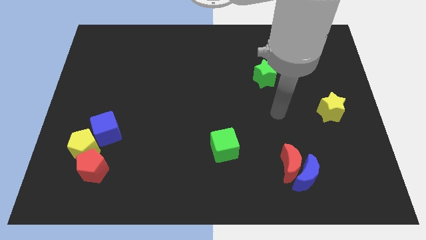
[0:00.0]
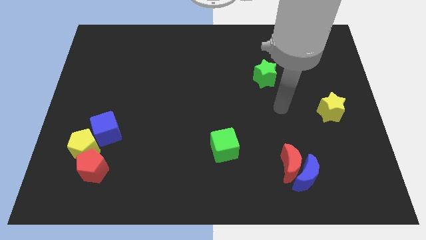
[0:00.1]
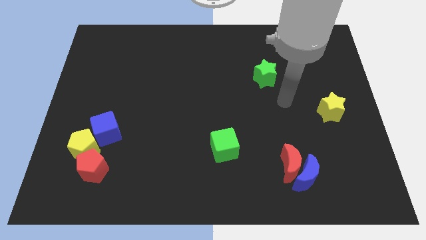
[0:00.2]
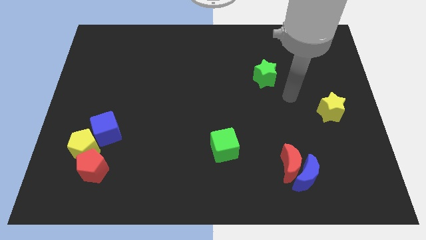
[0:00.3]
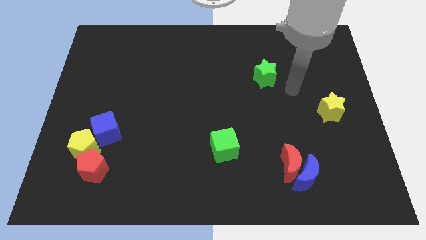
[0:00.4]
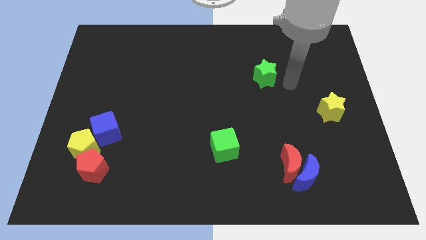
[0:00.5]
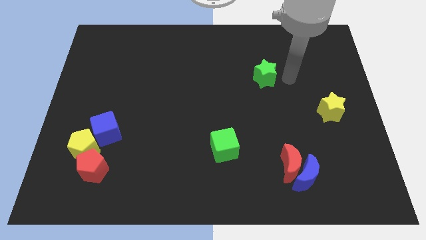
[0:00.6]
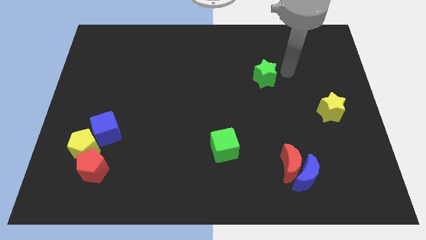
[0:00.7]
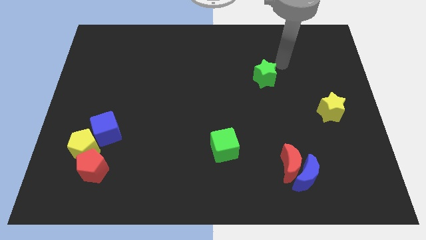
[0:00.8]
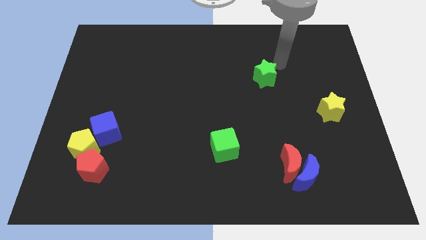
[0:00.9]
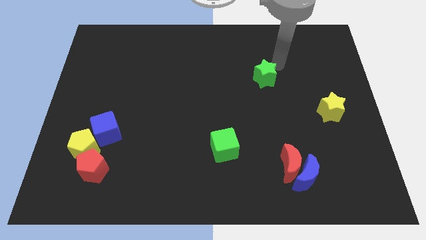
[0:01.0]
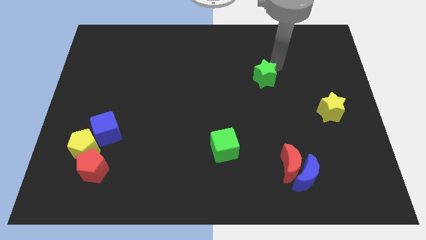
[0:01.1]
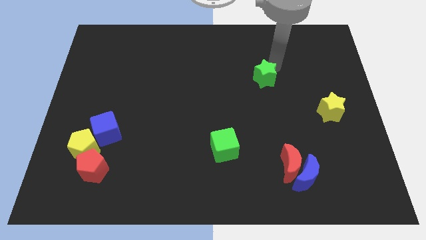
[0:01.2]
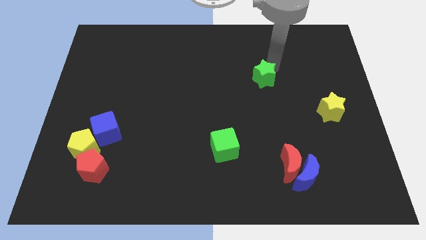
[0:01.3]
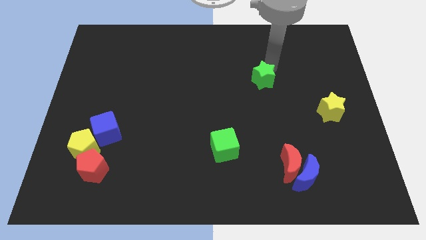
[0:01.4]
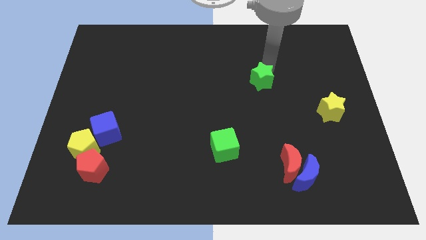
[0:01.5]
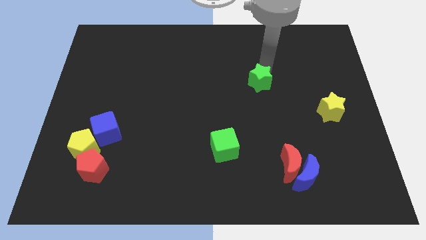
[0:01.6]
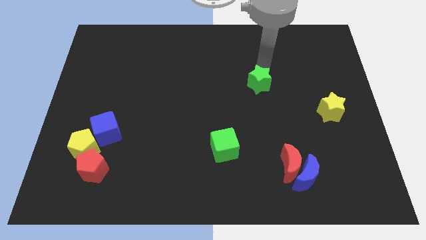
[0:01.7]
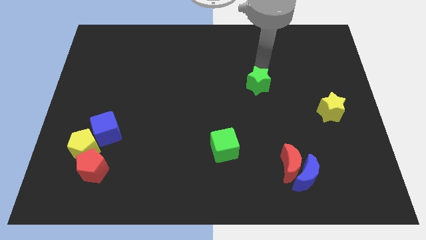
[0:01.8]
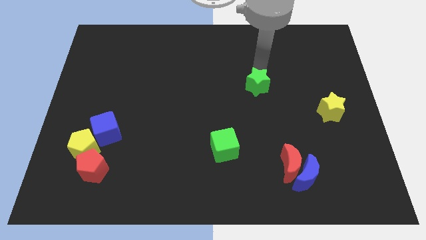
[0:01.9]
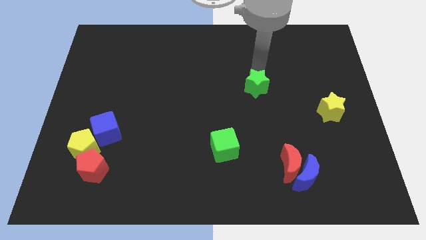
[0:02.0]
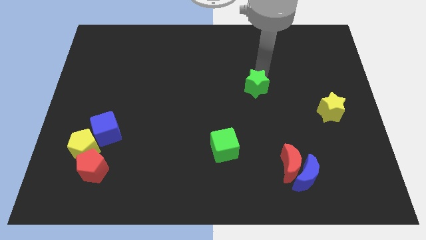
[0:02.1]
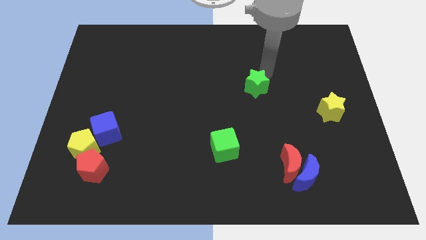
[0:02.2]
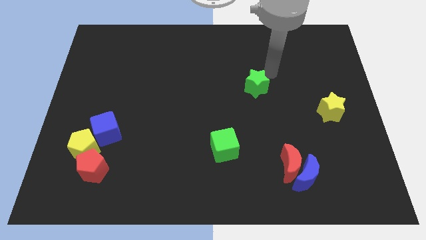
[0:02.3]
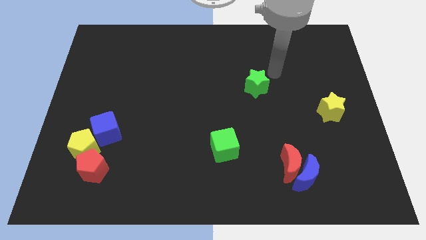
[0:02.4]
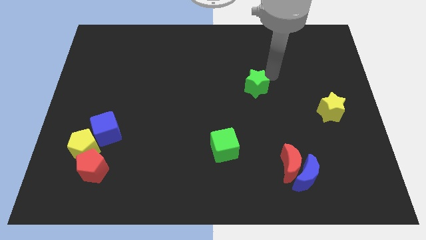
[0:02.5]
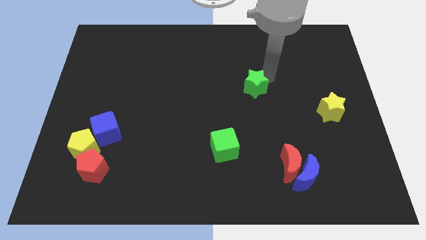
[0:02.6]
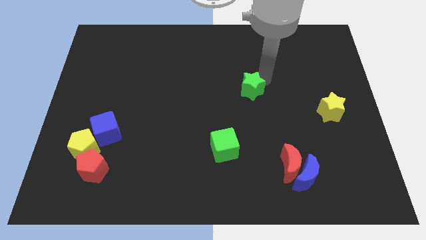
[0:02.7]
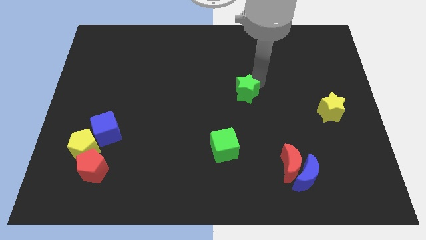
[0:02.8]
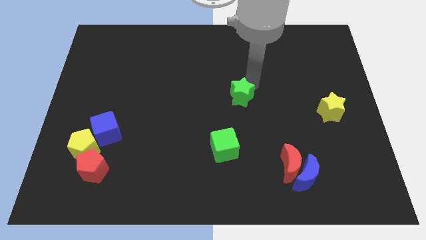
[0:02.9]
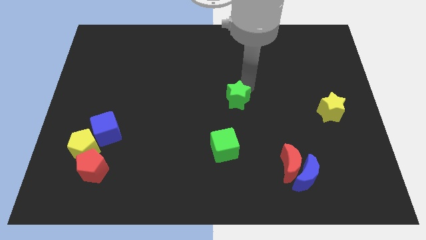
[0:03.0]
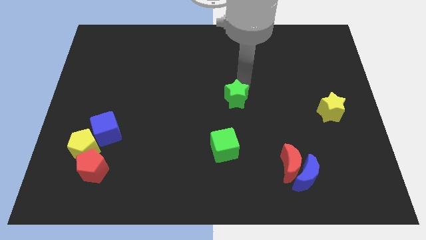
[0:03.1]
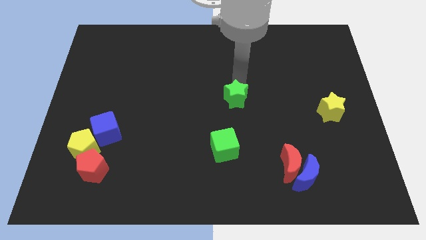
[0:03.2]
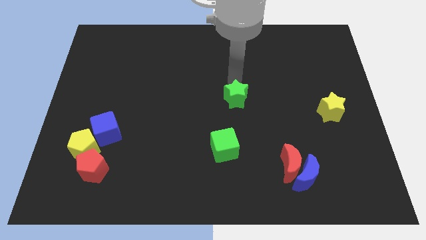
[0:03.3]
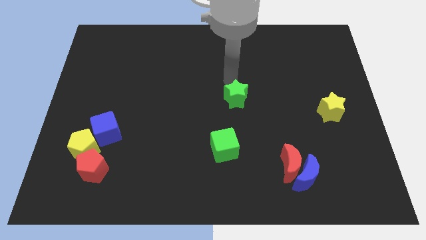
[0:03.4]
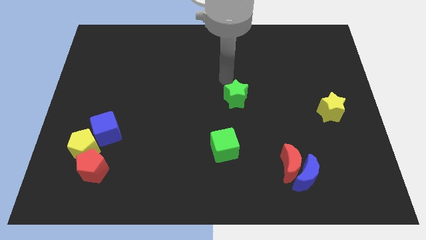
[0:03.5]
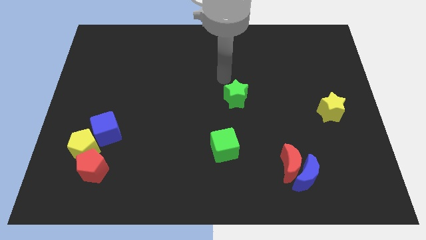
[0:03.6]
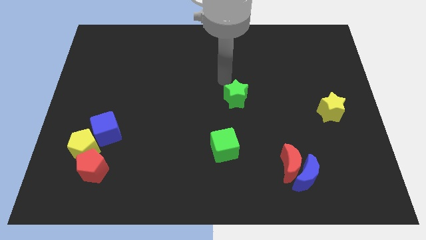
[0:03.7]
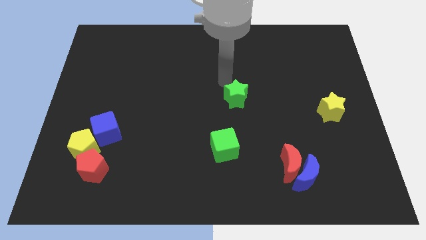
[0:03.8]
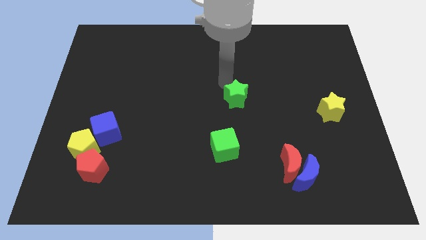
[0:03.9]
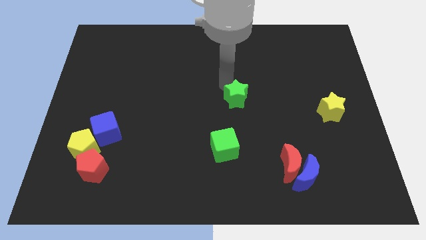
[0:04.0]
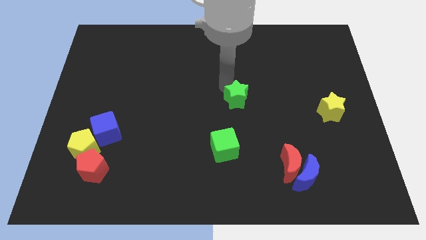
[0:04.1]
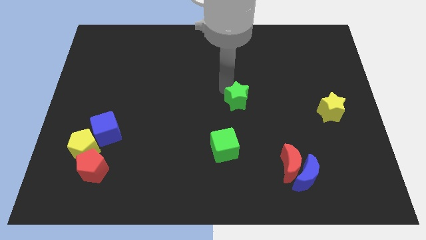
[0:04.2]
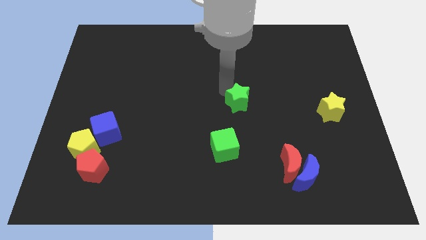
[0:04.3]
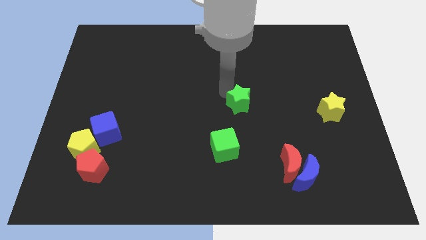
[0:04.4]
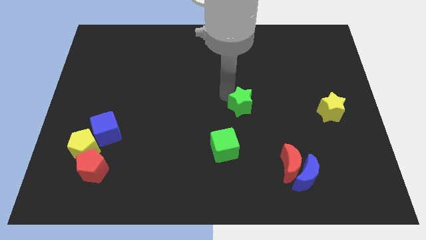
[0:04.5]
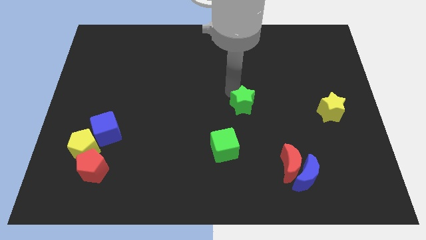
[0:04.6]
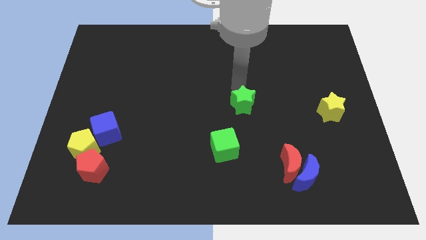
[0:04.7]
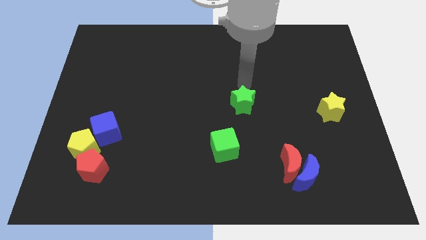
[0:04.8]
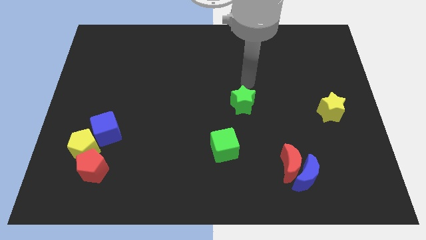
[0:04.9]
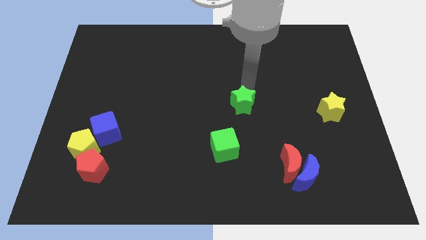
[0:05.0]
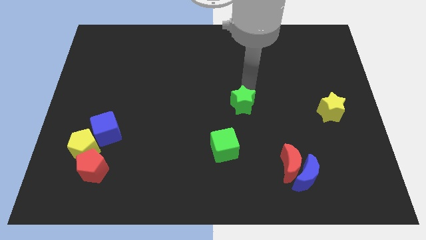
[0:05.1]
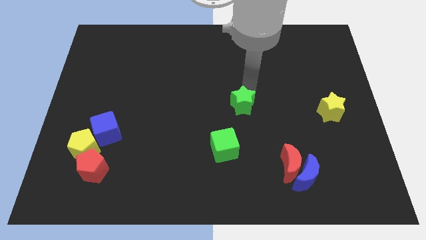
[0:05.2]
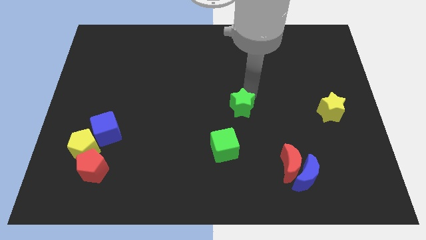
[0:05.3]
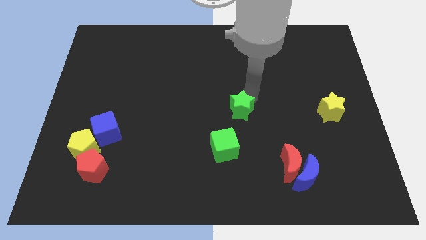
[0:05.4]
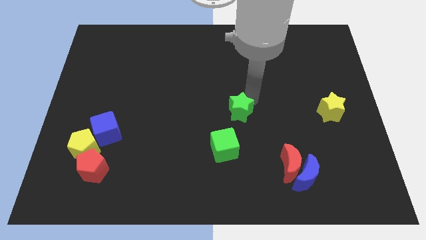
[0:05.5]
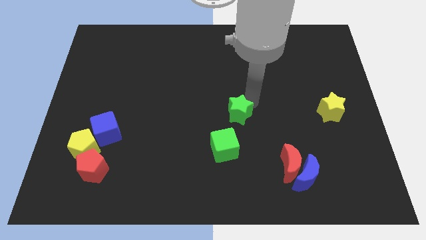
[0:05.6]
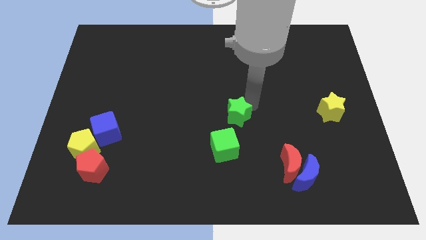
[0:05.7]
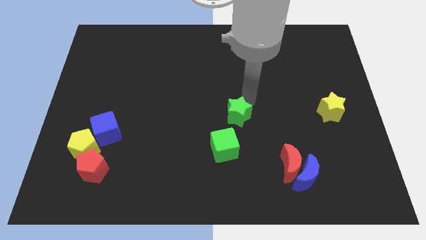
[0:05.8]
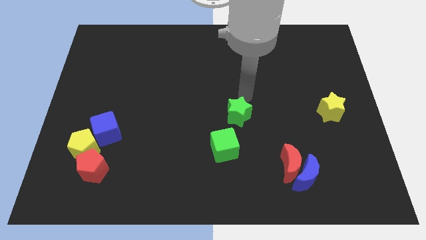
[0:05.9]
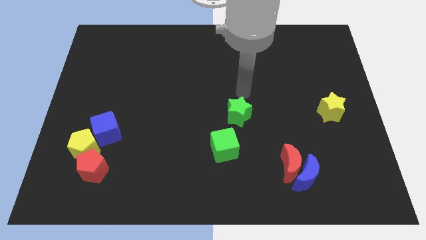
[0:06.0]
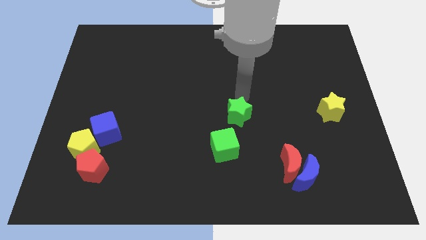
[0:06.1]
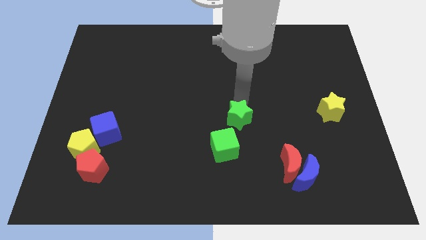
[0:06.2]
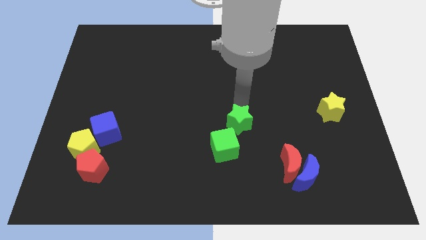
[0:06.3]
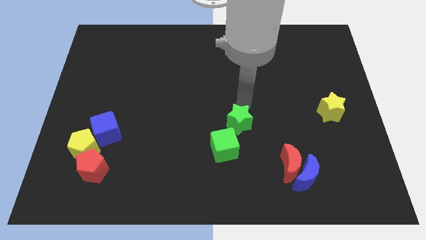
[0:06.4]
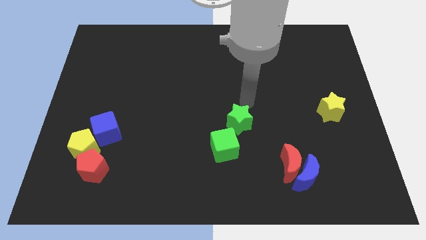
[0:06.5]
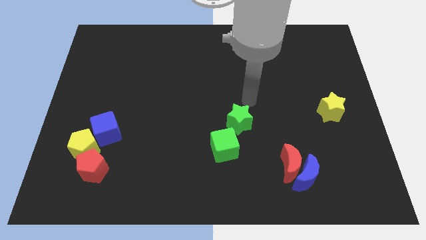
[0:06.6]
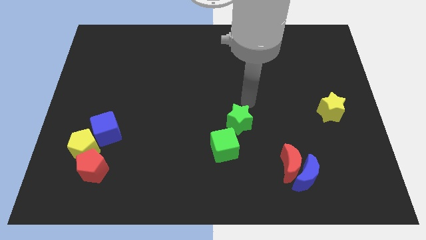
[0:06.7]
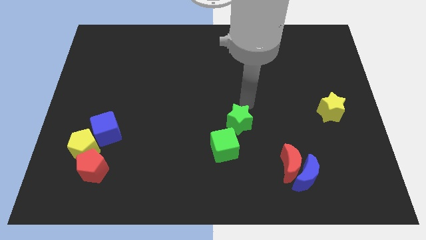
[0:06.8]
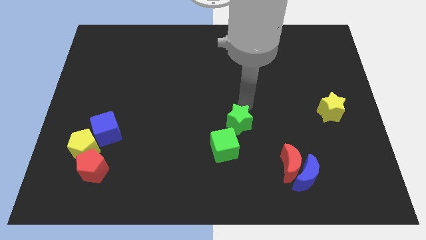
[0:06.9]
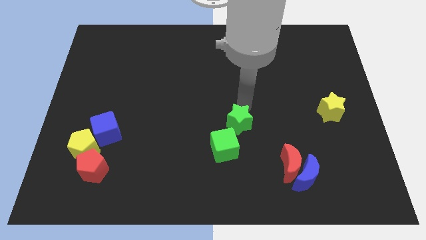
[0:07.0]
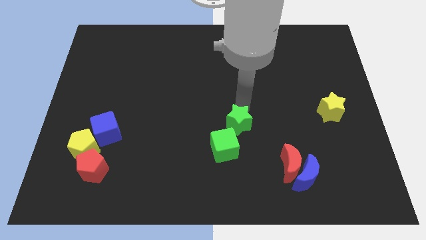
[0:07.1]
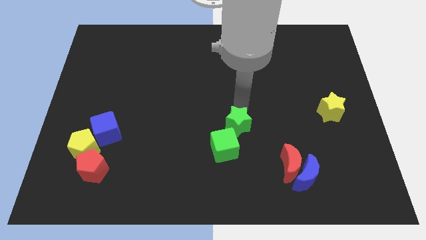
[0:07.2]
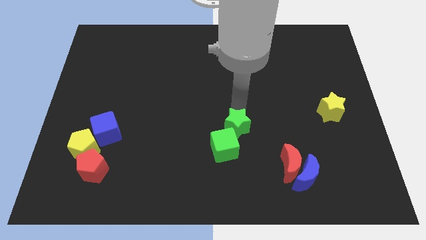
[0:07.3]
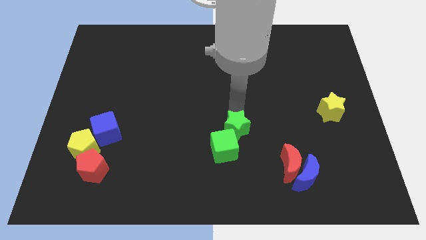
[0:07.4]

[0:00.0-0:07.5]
put the green star to the green cube
